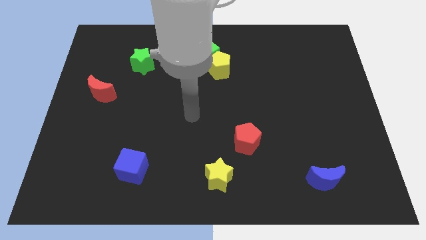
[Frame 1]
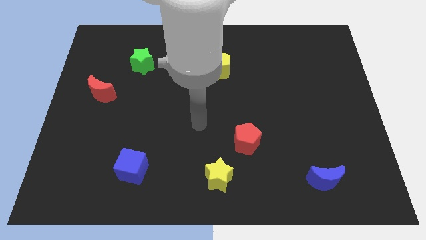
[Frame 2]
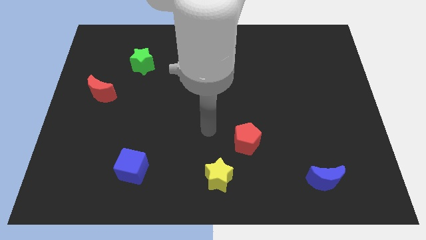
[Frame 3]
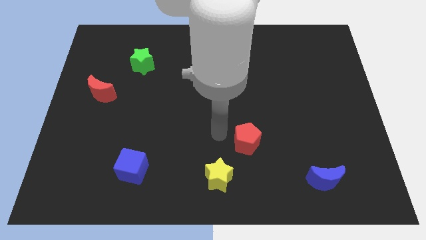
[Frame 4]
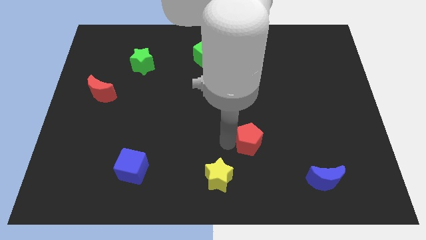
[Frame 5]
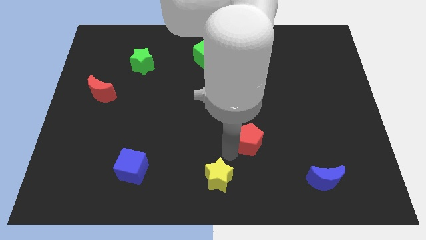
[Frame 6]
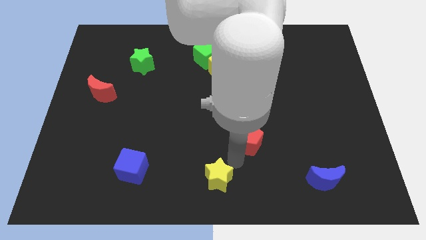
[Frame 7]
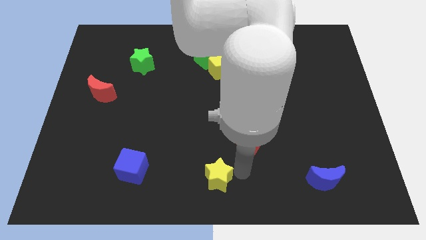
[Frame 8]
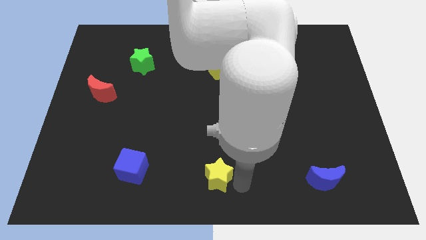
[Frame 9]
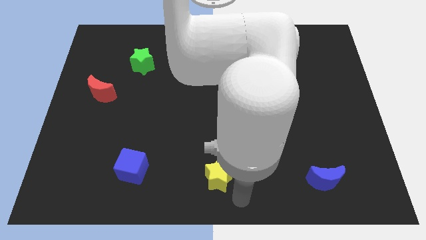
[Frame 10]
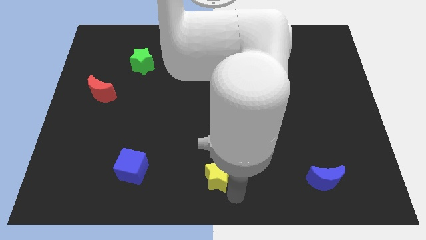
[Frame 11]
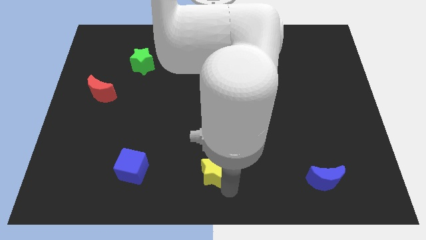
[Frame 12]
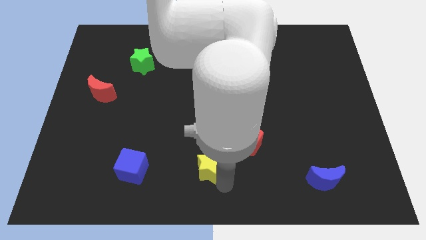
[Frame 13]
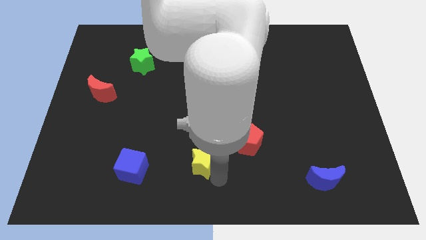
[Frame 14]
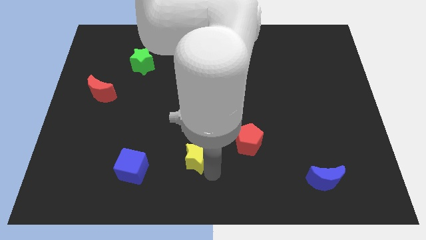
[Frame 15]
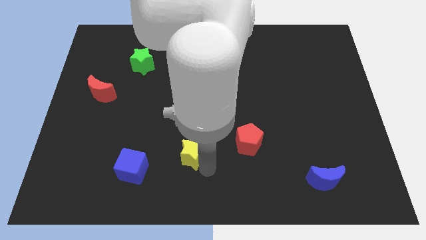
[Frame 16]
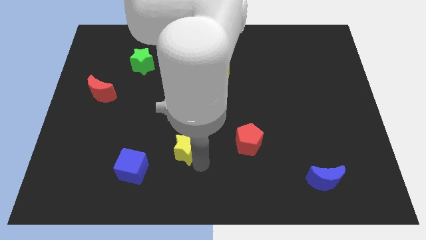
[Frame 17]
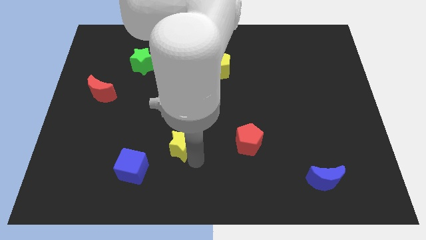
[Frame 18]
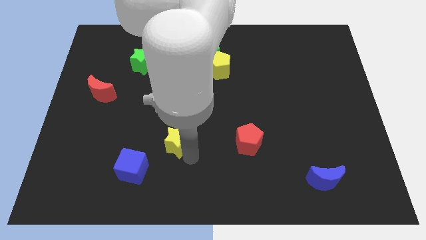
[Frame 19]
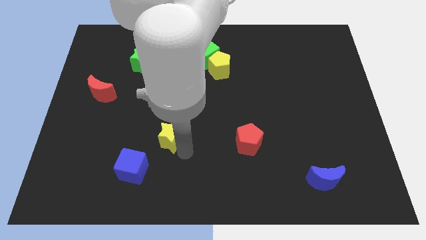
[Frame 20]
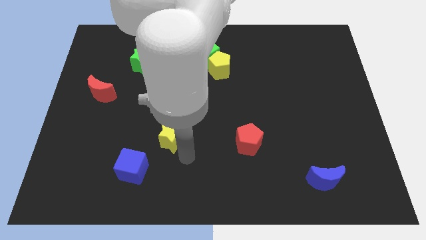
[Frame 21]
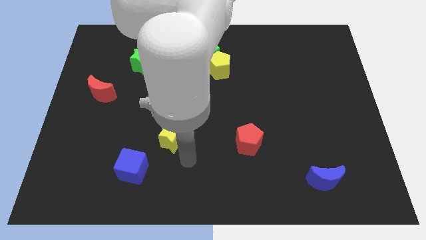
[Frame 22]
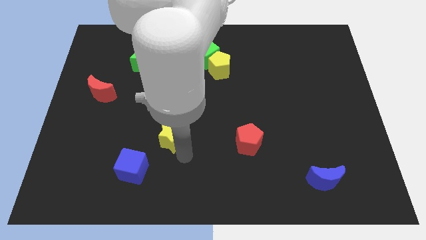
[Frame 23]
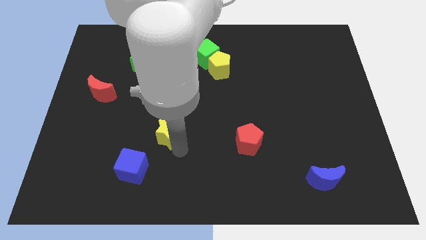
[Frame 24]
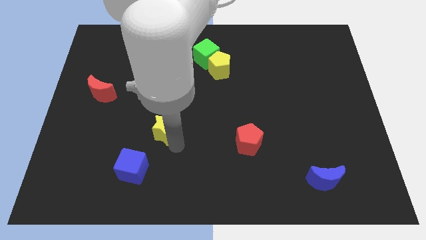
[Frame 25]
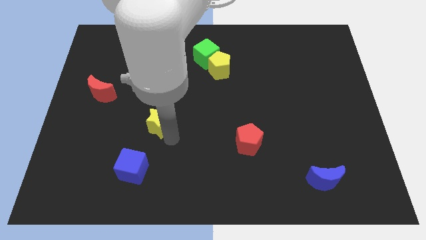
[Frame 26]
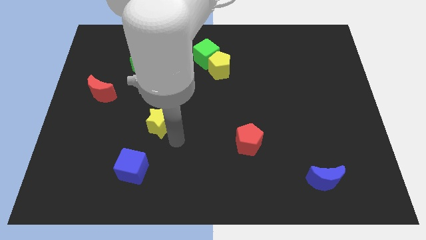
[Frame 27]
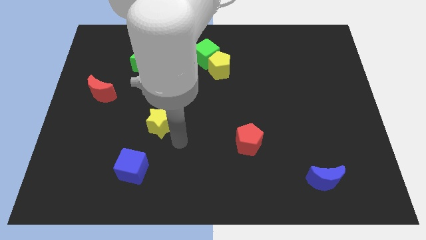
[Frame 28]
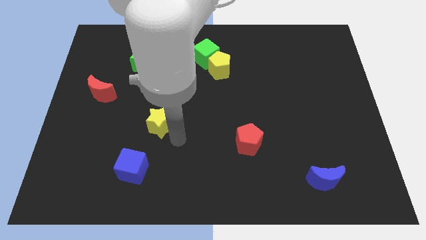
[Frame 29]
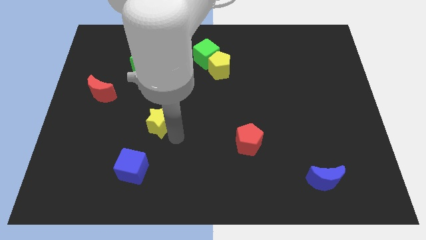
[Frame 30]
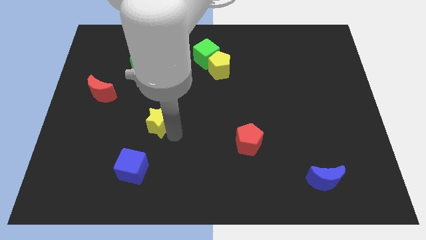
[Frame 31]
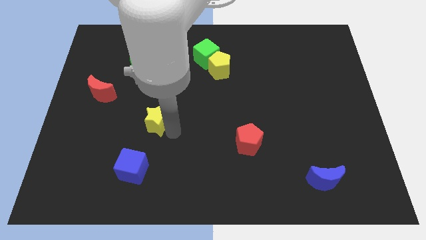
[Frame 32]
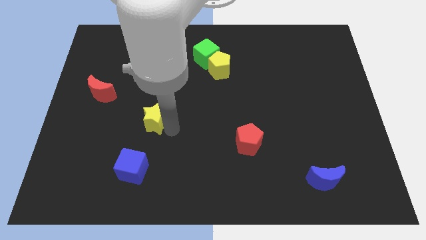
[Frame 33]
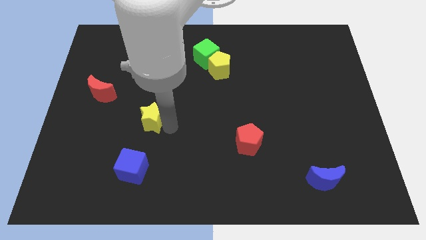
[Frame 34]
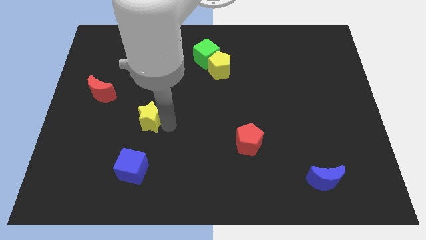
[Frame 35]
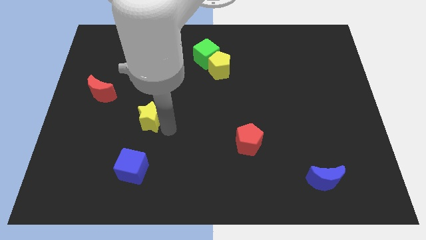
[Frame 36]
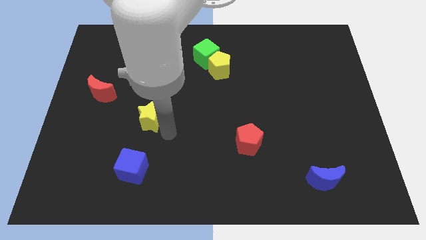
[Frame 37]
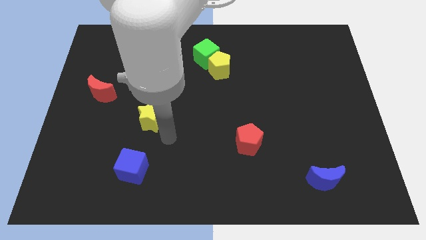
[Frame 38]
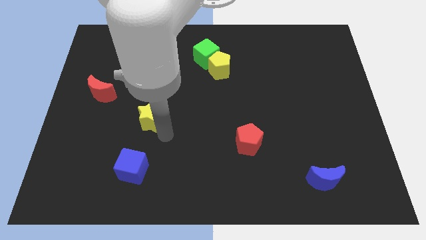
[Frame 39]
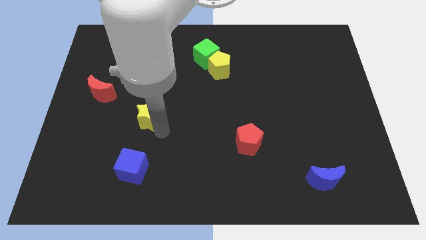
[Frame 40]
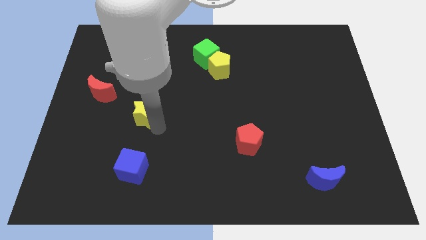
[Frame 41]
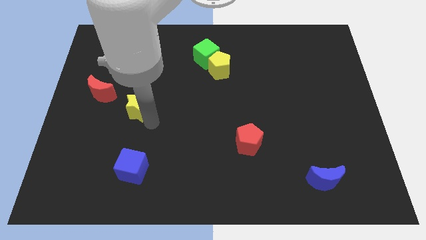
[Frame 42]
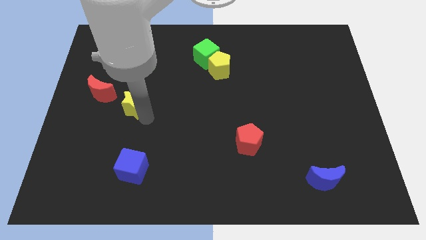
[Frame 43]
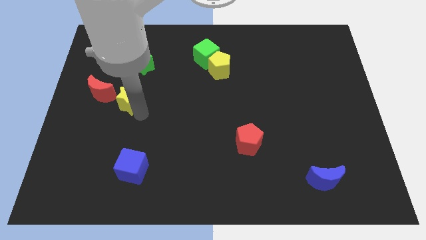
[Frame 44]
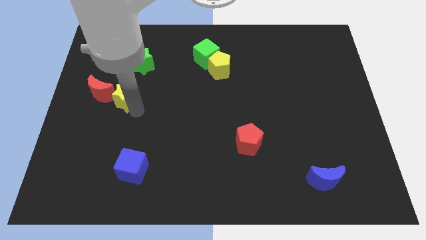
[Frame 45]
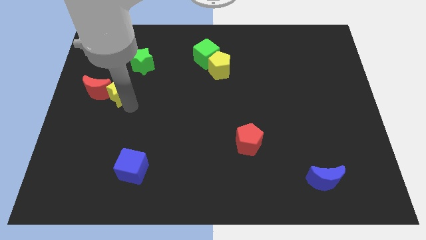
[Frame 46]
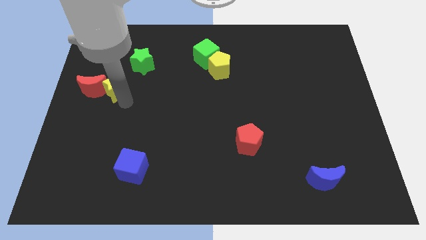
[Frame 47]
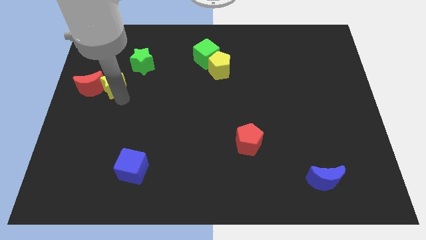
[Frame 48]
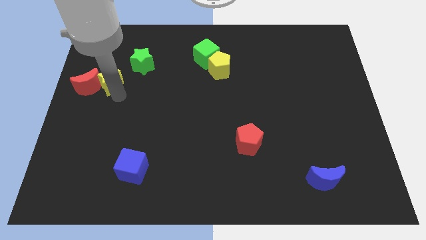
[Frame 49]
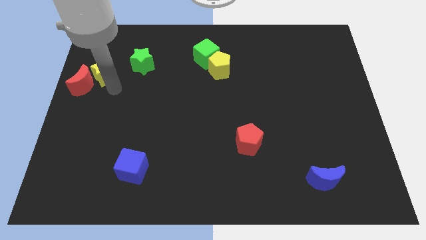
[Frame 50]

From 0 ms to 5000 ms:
push the yellow star above the red moon

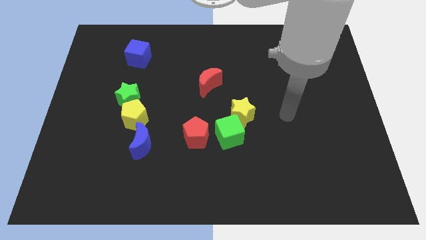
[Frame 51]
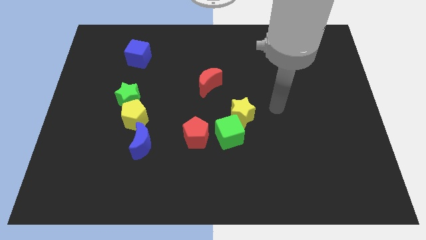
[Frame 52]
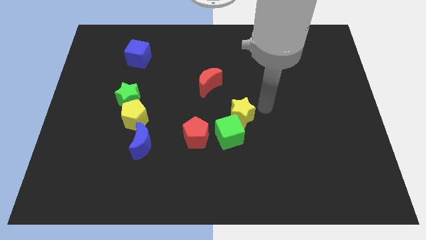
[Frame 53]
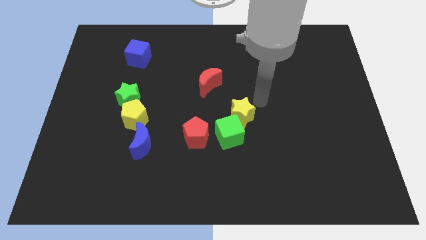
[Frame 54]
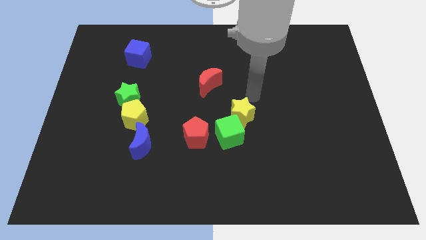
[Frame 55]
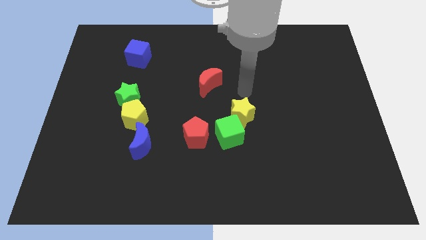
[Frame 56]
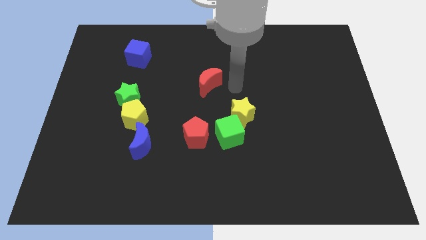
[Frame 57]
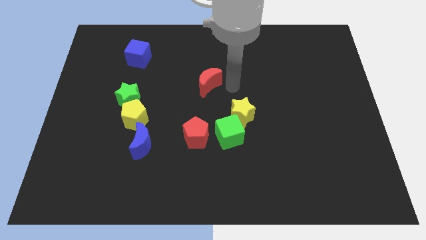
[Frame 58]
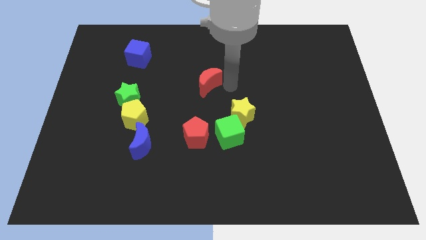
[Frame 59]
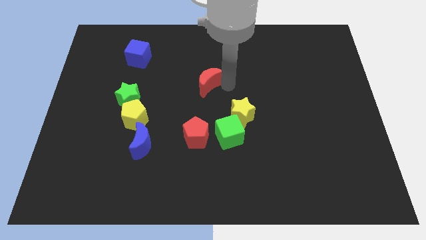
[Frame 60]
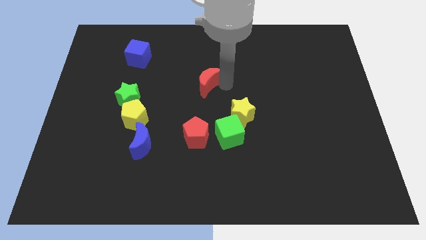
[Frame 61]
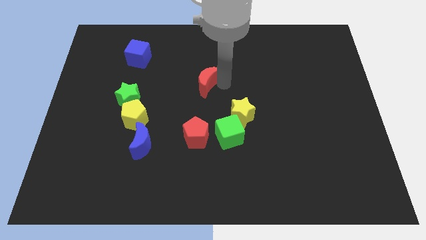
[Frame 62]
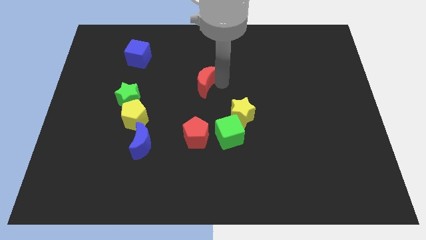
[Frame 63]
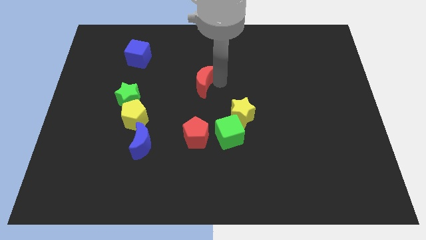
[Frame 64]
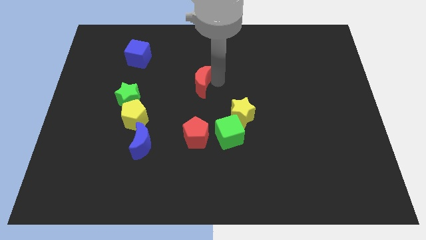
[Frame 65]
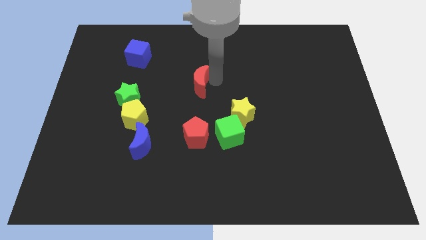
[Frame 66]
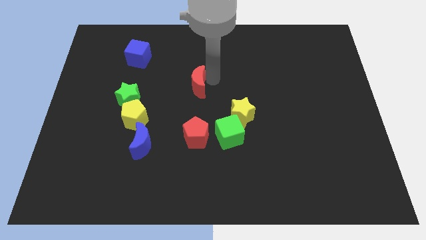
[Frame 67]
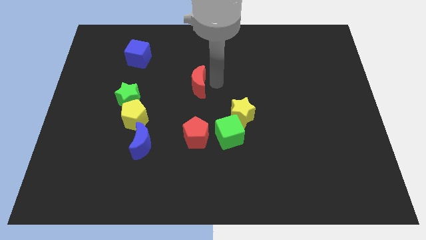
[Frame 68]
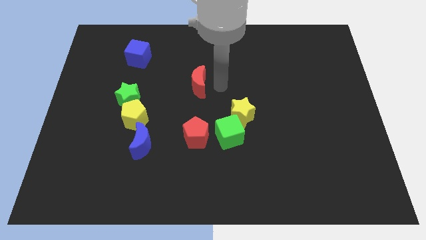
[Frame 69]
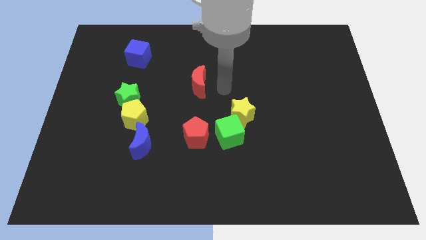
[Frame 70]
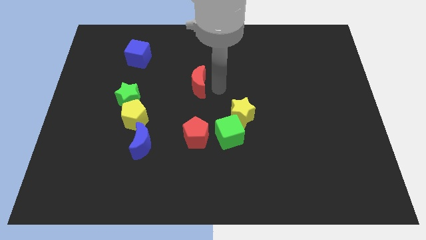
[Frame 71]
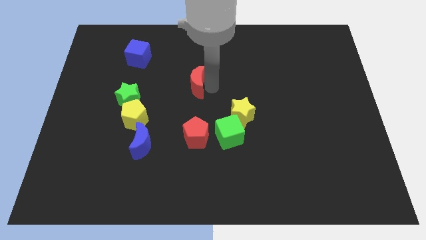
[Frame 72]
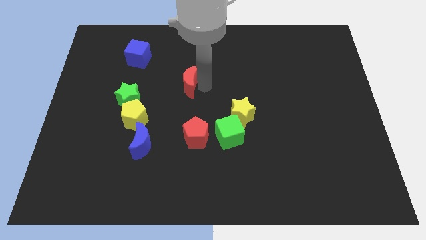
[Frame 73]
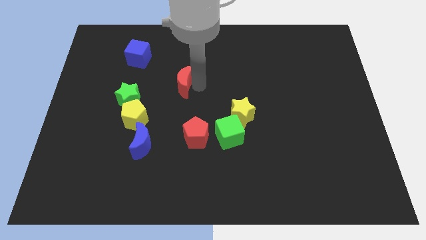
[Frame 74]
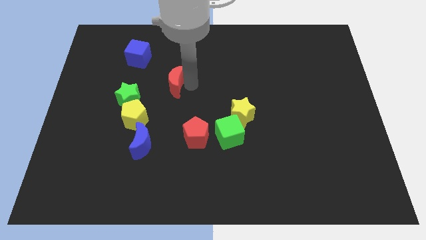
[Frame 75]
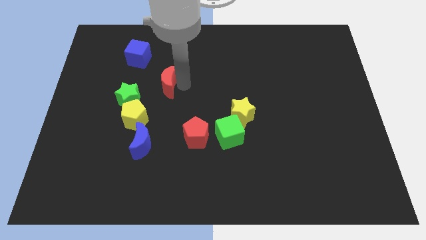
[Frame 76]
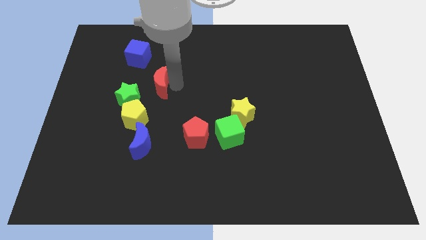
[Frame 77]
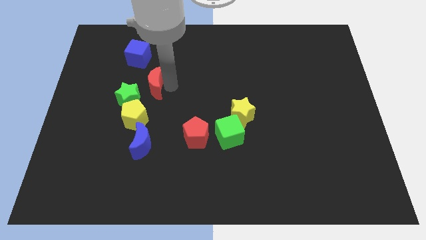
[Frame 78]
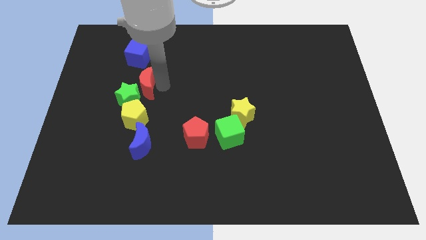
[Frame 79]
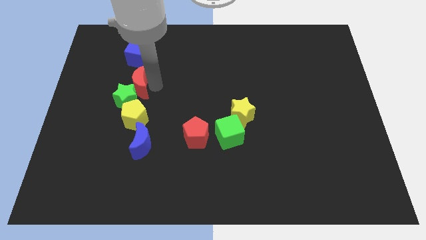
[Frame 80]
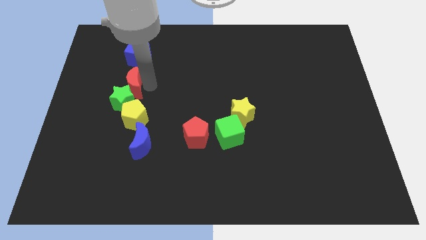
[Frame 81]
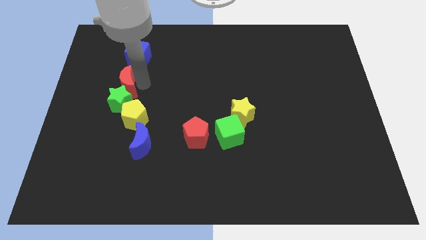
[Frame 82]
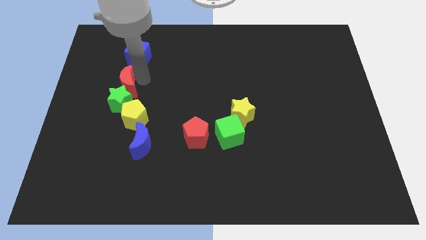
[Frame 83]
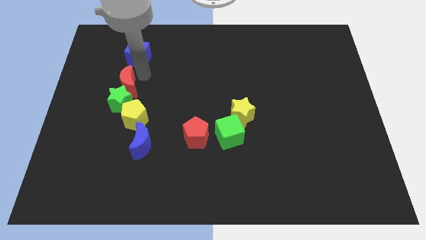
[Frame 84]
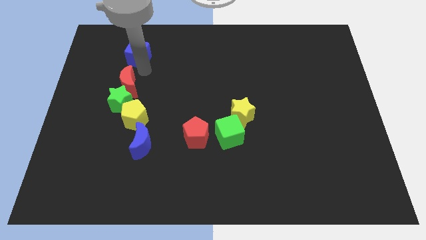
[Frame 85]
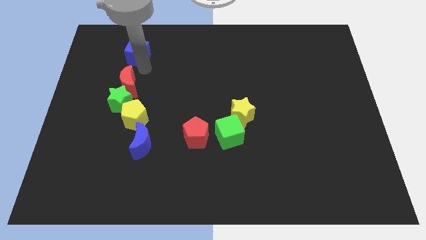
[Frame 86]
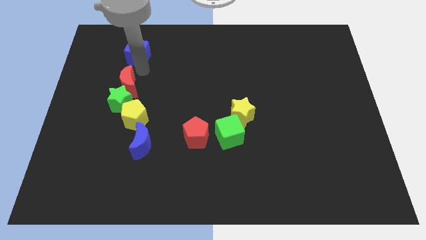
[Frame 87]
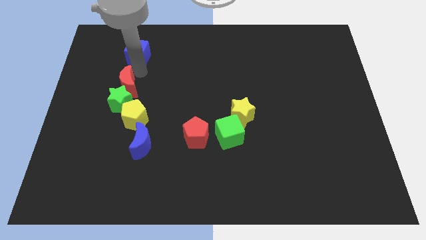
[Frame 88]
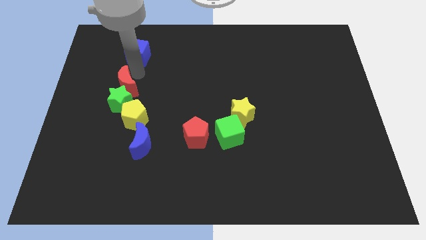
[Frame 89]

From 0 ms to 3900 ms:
put the red moon to the top left side of the yellow pentagon
